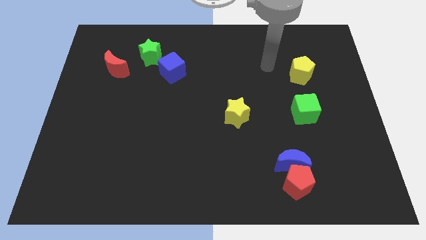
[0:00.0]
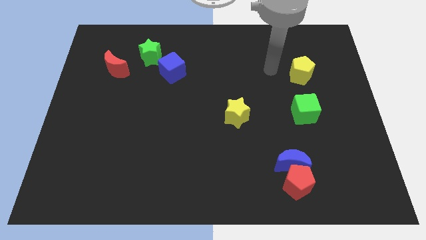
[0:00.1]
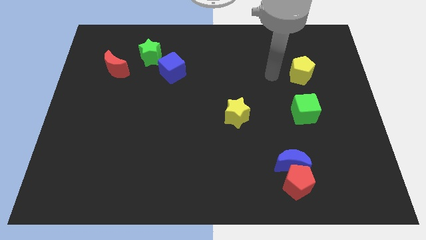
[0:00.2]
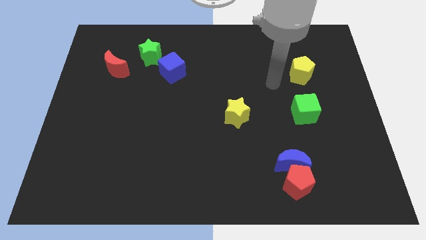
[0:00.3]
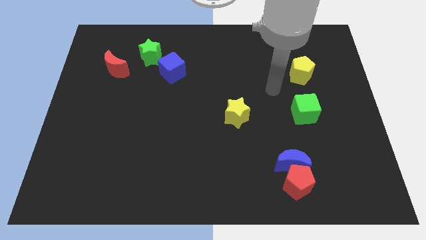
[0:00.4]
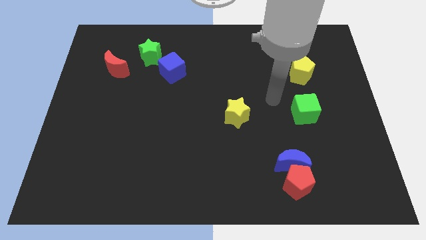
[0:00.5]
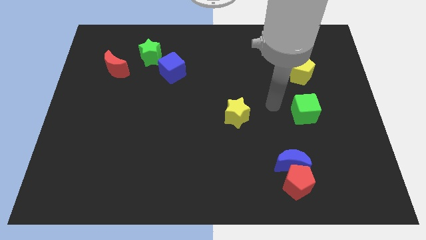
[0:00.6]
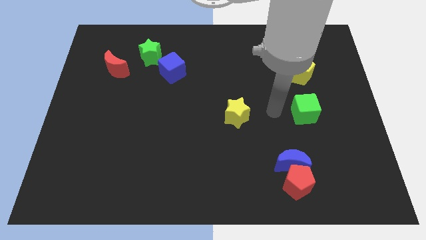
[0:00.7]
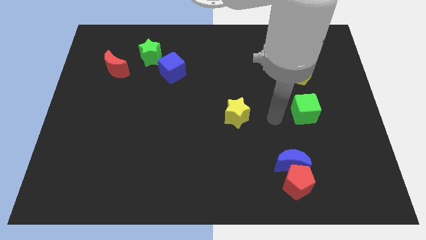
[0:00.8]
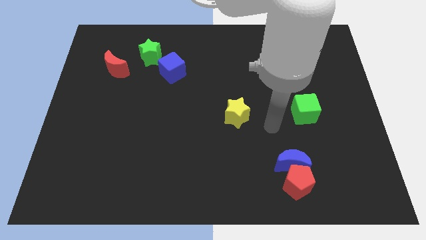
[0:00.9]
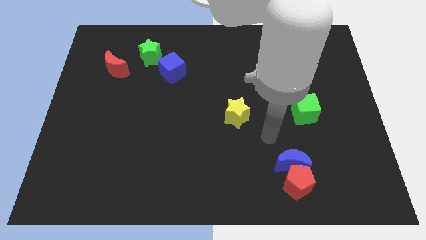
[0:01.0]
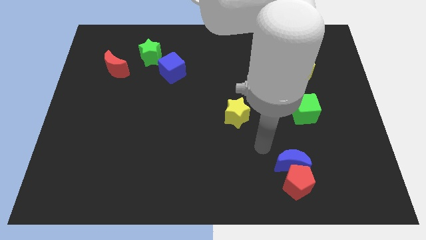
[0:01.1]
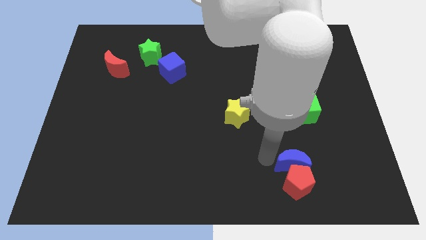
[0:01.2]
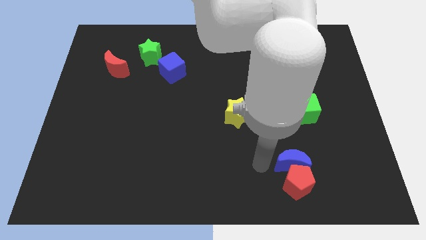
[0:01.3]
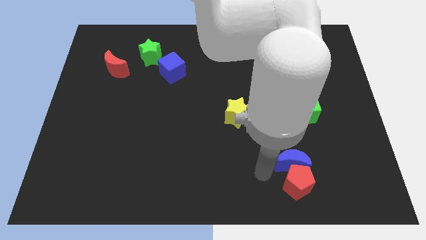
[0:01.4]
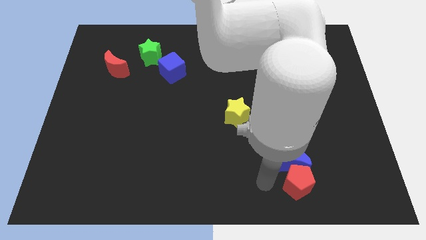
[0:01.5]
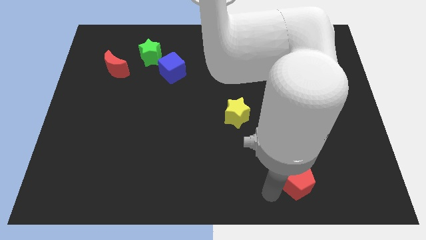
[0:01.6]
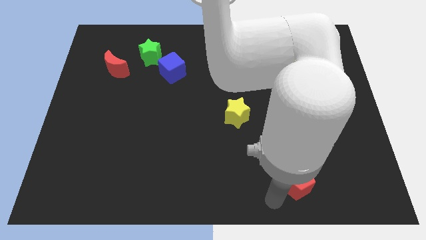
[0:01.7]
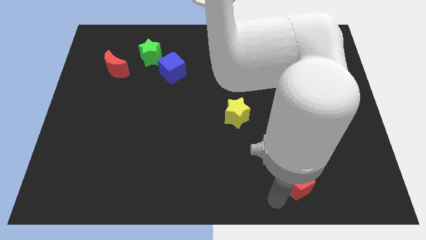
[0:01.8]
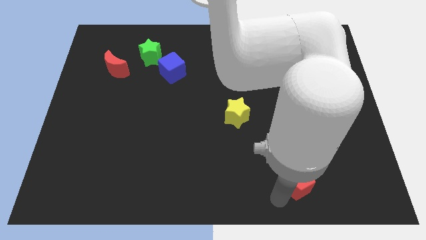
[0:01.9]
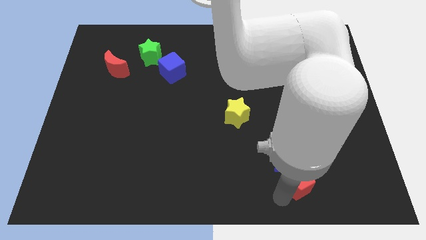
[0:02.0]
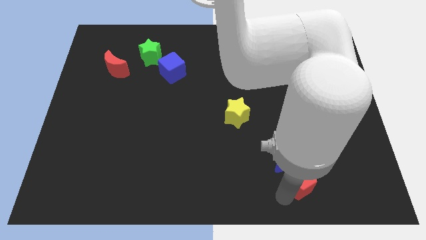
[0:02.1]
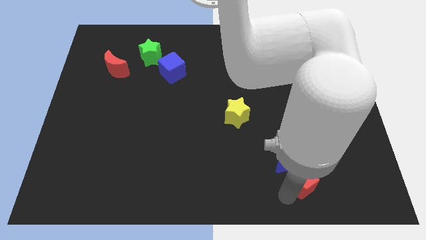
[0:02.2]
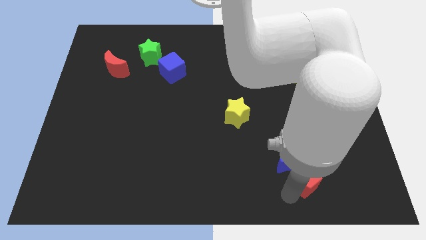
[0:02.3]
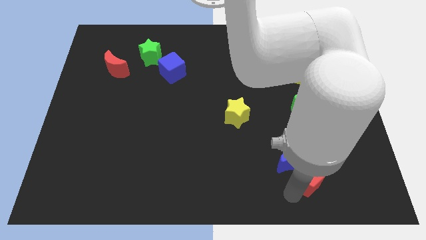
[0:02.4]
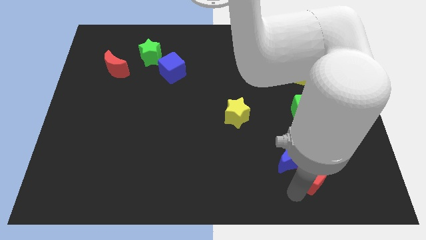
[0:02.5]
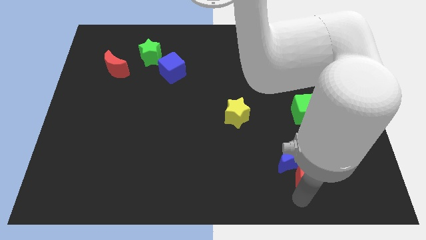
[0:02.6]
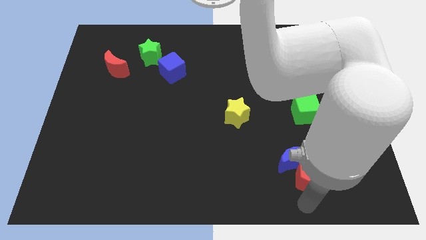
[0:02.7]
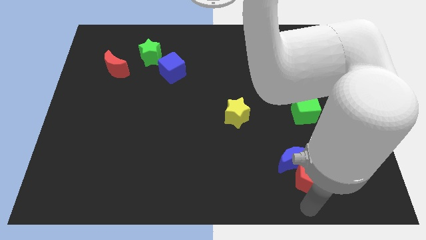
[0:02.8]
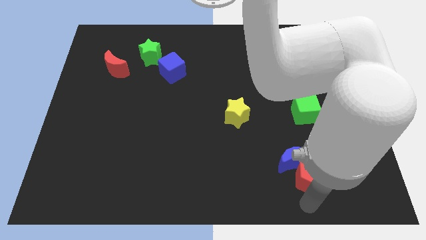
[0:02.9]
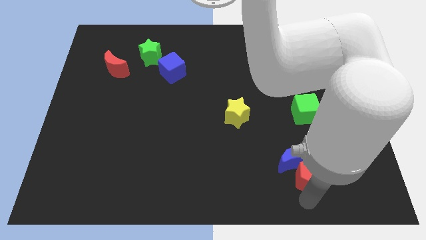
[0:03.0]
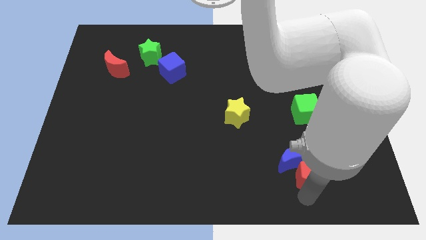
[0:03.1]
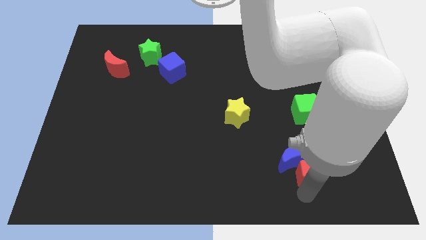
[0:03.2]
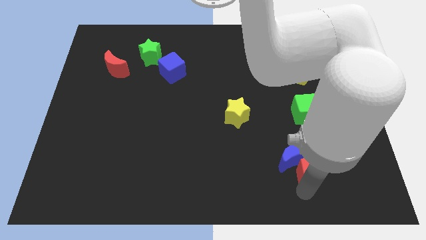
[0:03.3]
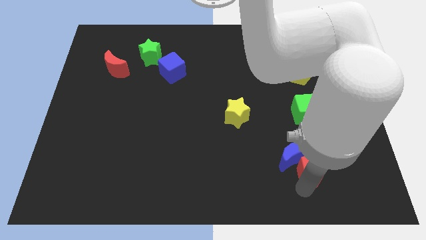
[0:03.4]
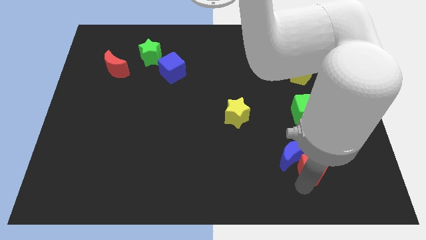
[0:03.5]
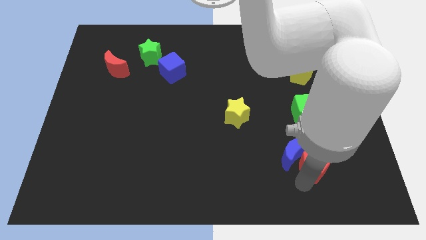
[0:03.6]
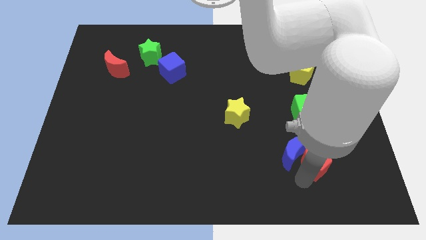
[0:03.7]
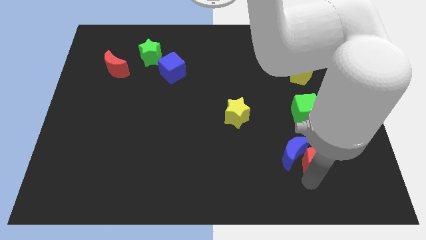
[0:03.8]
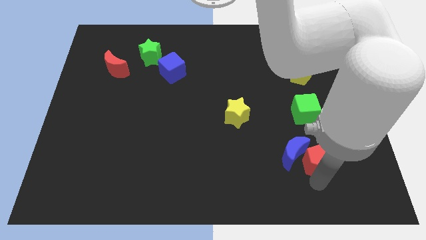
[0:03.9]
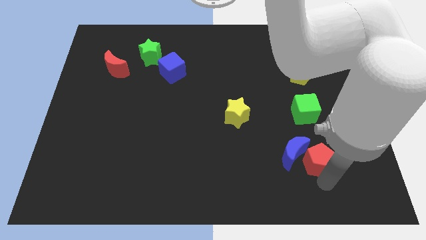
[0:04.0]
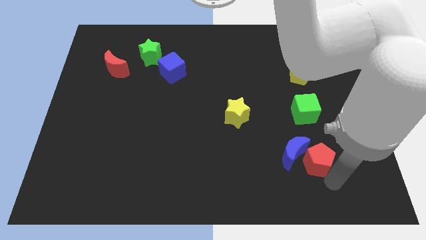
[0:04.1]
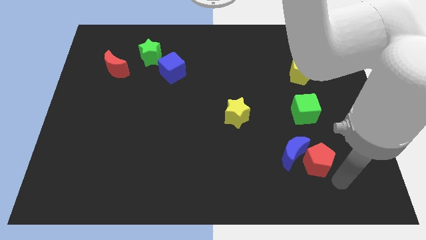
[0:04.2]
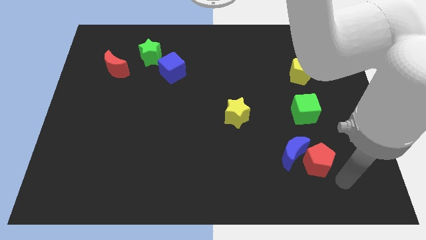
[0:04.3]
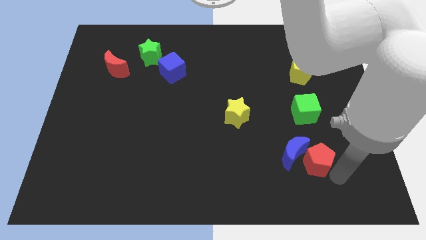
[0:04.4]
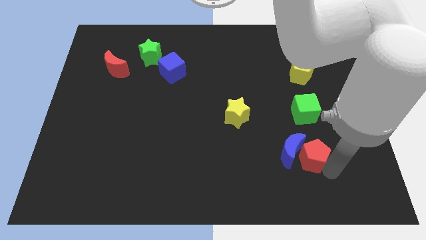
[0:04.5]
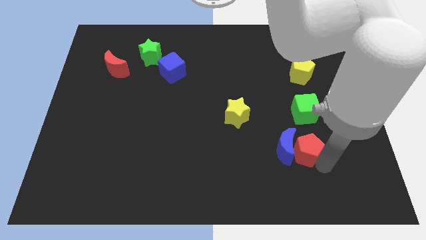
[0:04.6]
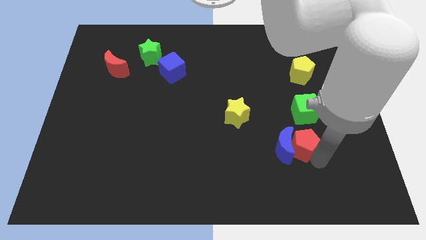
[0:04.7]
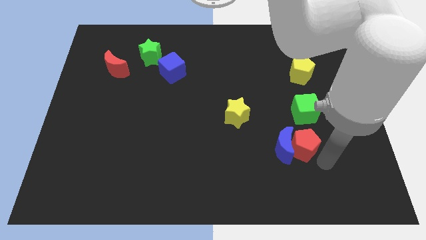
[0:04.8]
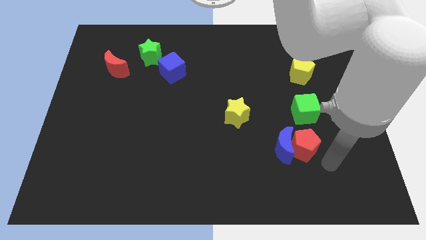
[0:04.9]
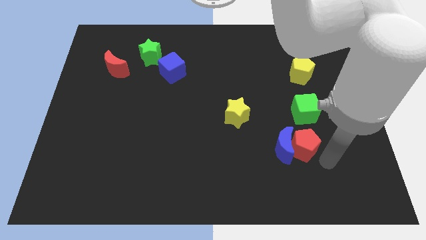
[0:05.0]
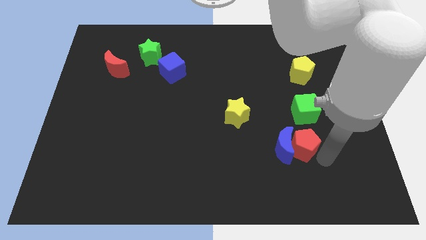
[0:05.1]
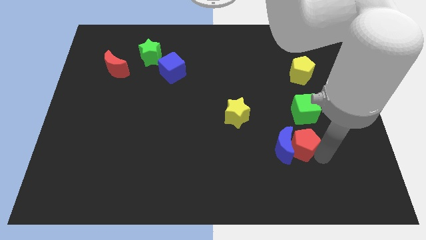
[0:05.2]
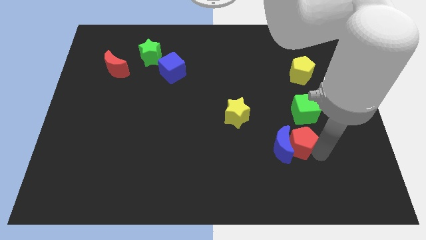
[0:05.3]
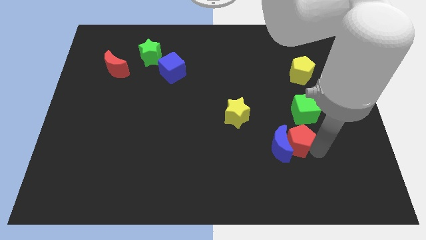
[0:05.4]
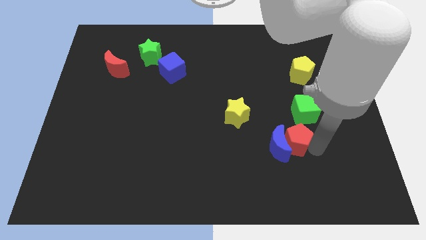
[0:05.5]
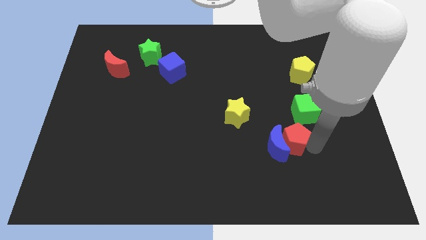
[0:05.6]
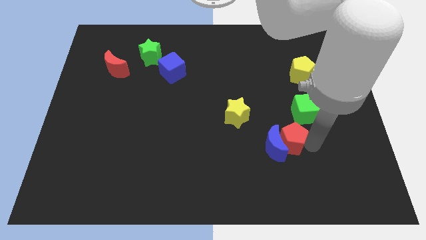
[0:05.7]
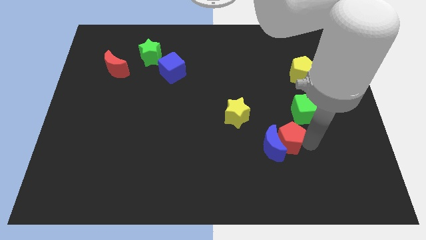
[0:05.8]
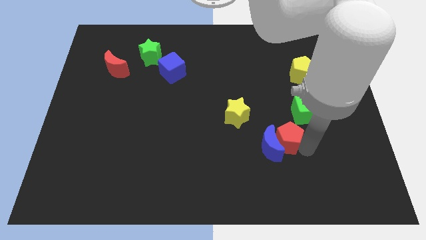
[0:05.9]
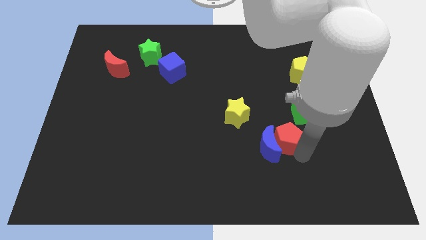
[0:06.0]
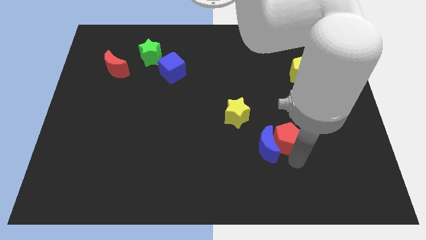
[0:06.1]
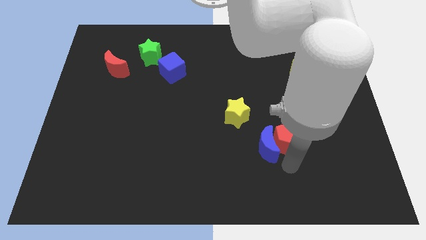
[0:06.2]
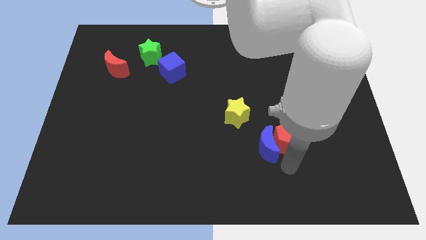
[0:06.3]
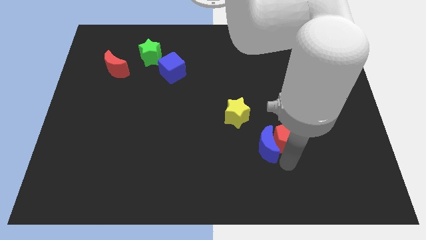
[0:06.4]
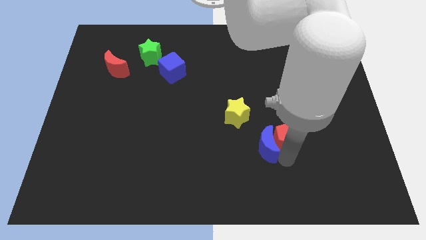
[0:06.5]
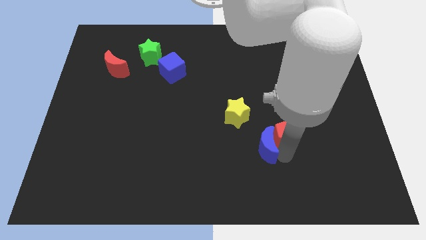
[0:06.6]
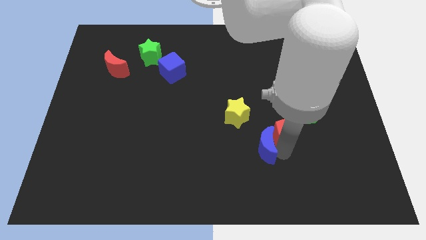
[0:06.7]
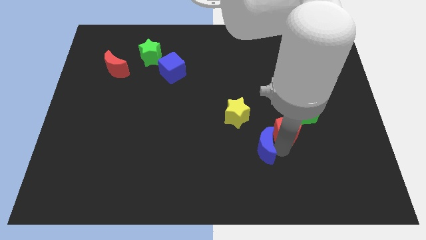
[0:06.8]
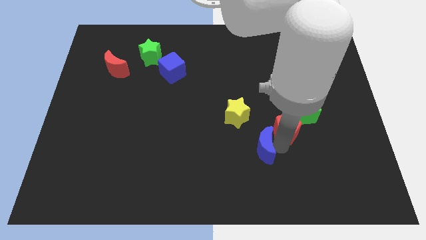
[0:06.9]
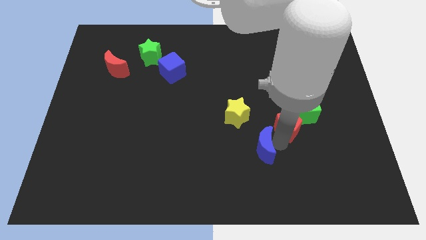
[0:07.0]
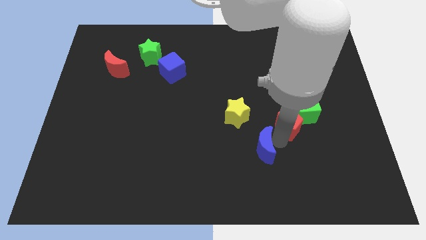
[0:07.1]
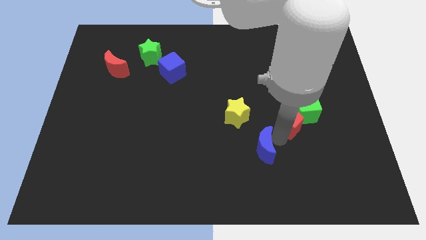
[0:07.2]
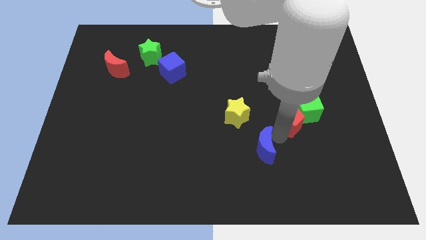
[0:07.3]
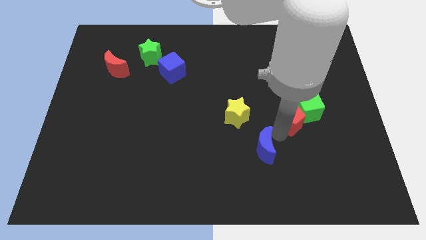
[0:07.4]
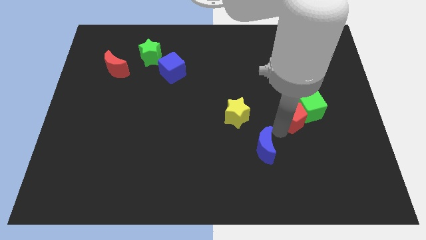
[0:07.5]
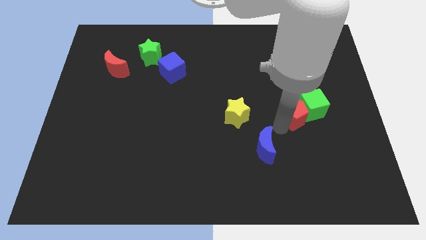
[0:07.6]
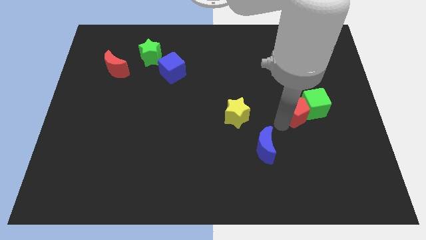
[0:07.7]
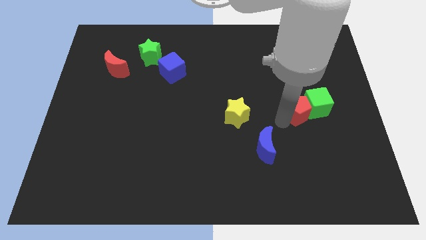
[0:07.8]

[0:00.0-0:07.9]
slide the red pentagon to the top left of the green cube
